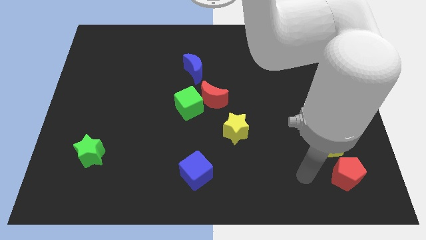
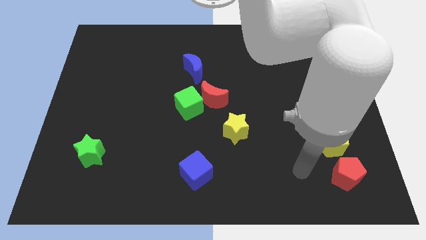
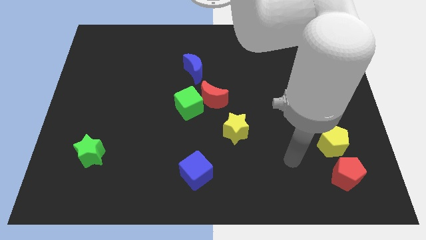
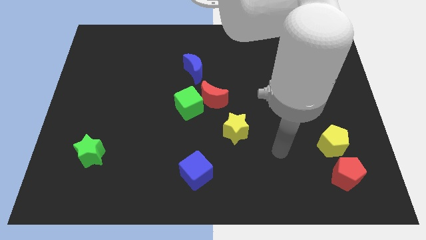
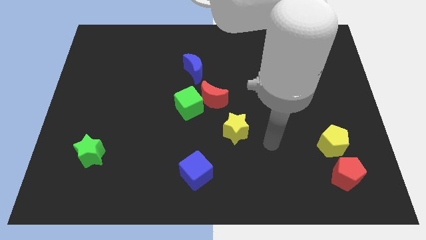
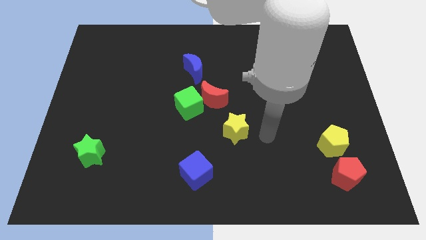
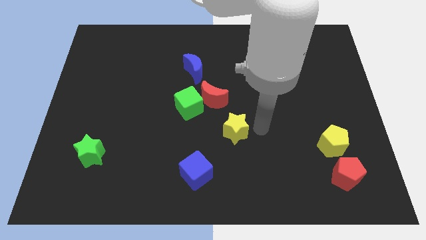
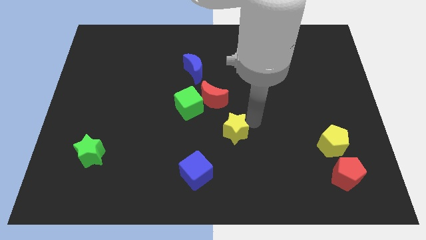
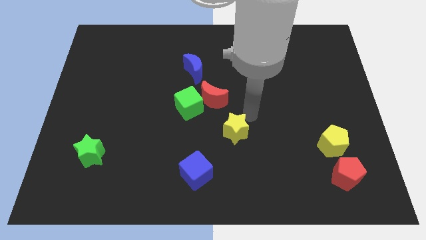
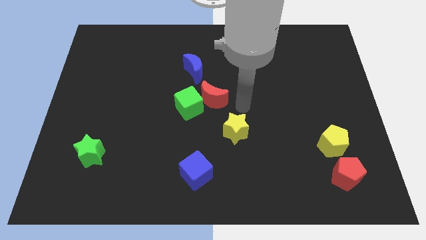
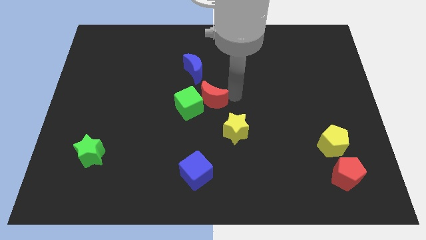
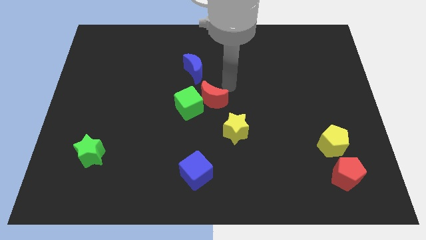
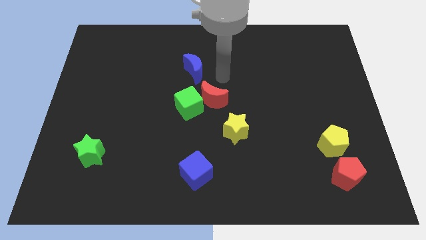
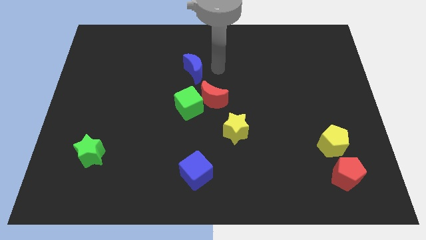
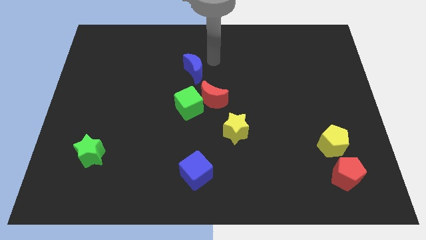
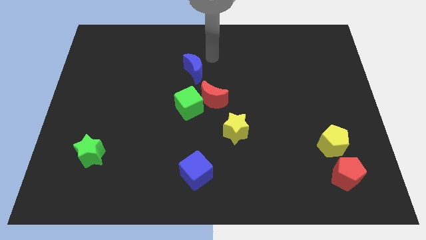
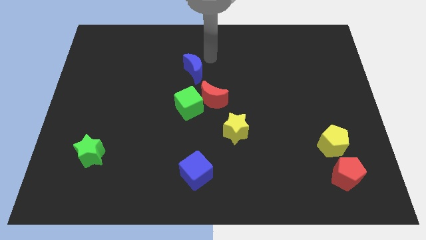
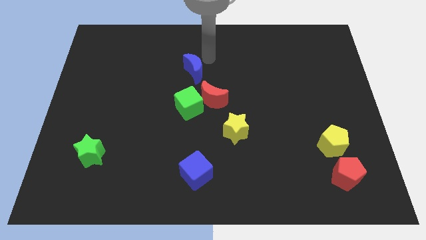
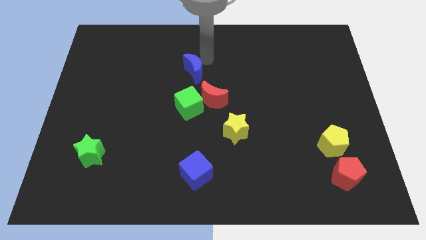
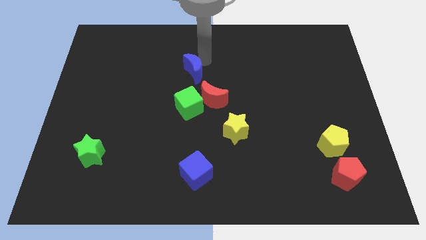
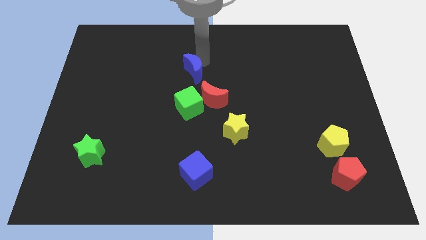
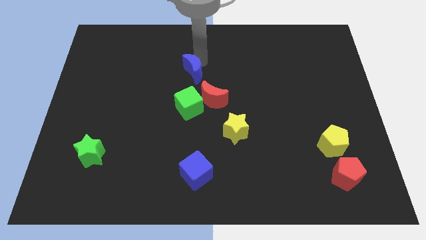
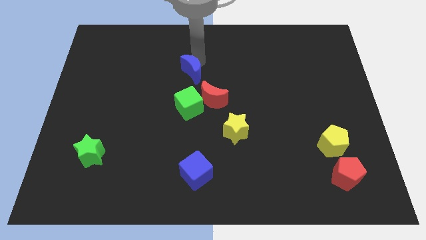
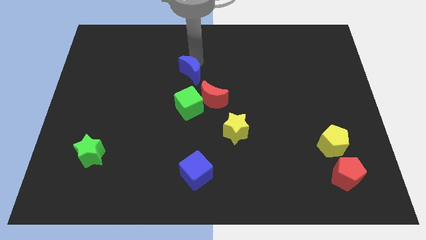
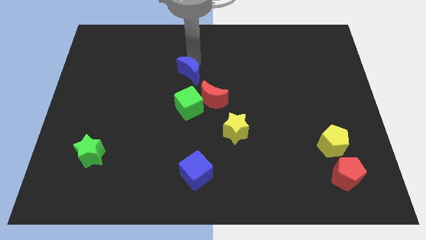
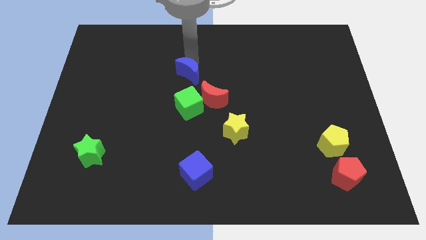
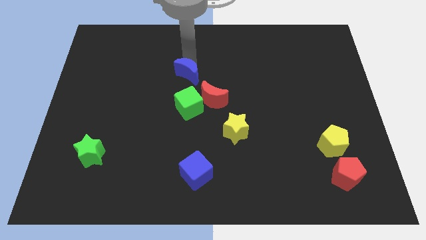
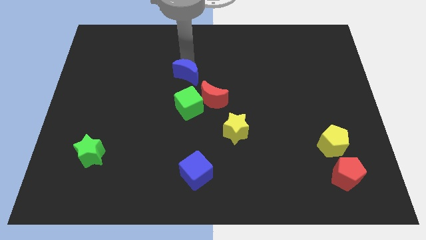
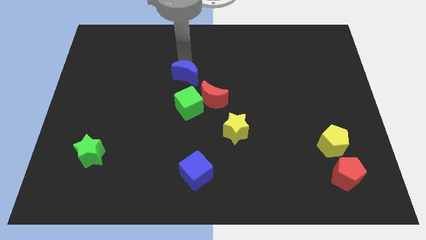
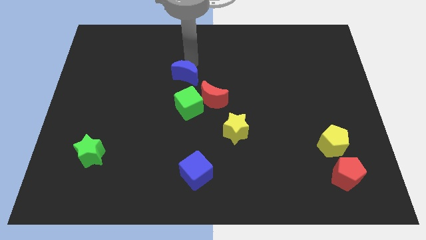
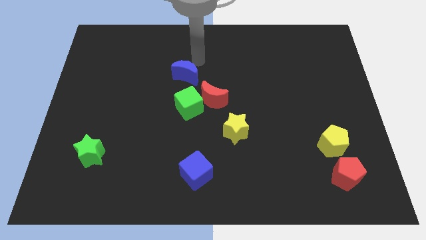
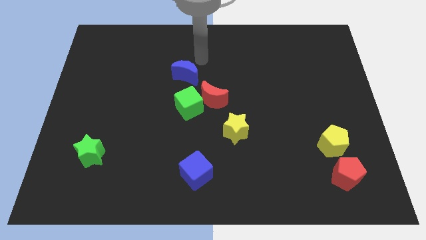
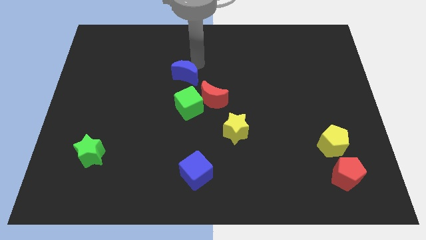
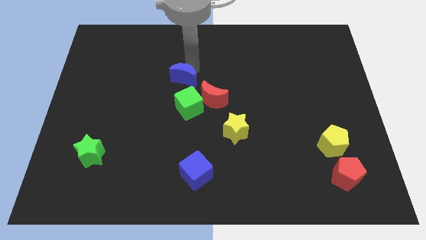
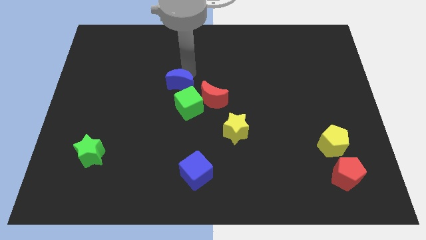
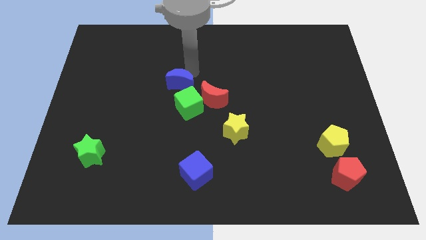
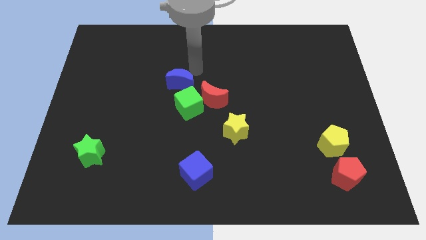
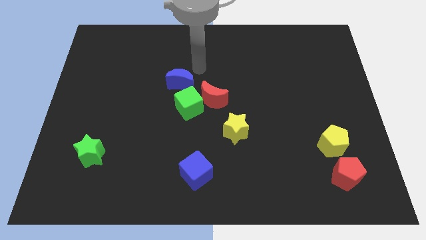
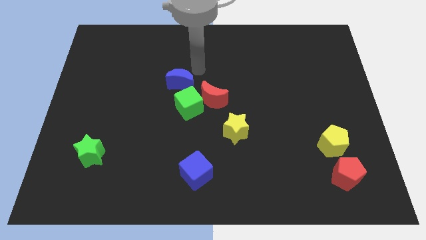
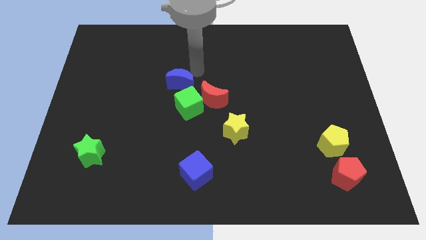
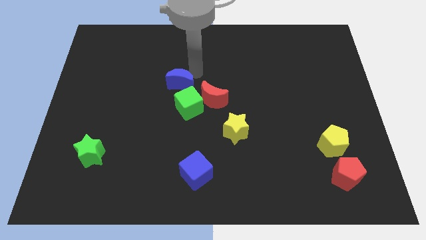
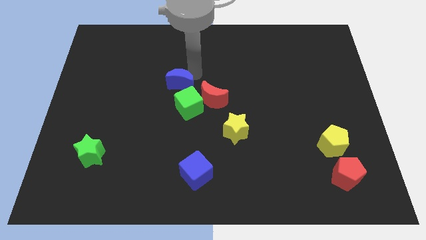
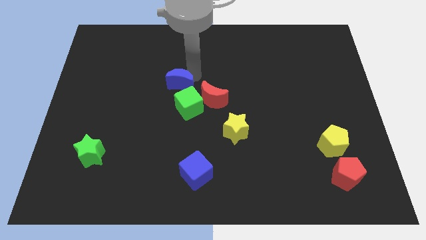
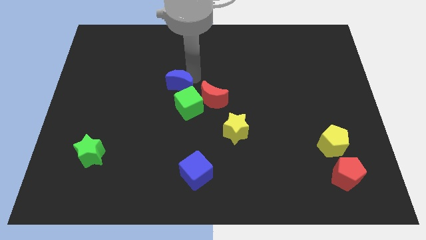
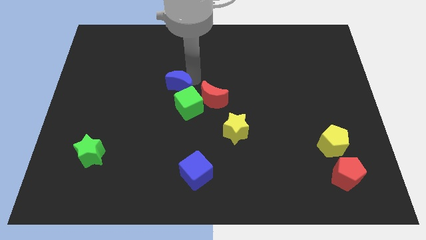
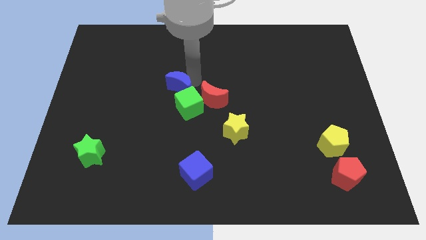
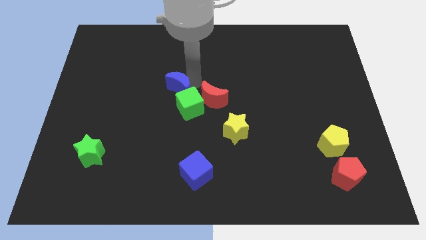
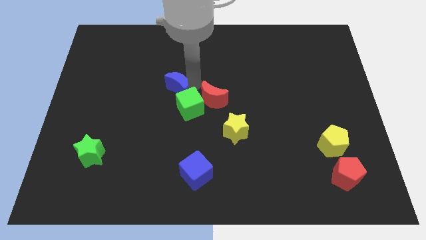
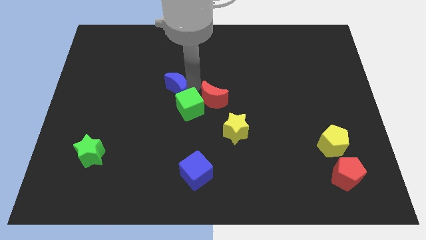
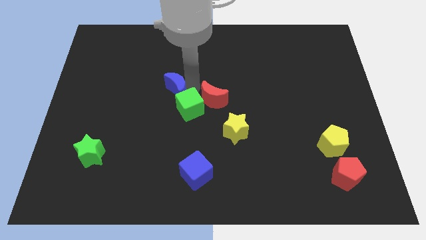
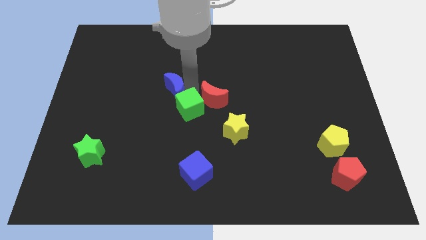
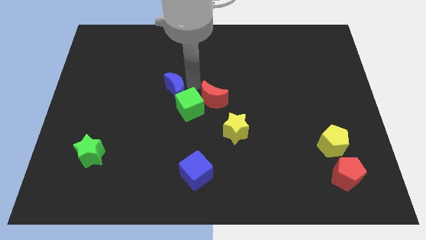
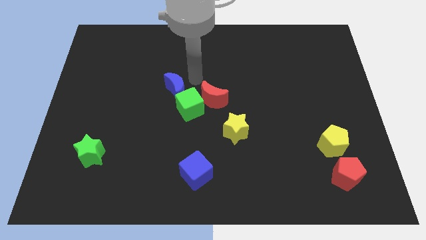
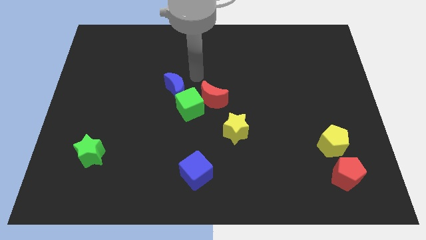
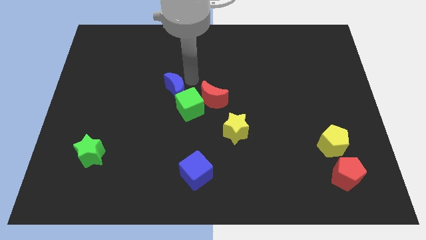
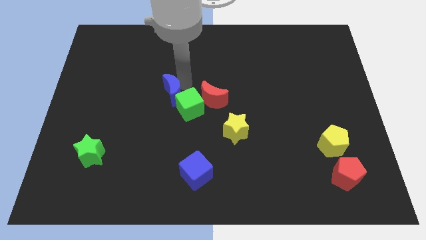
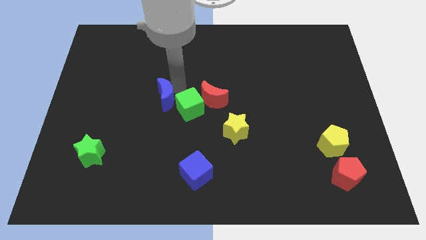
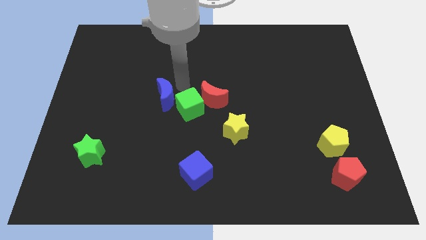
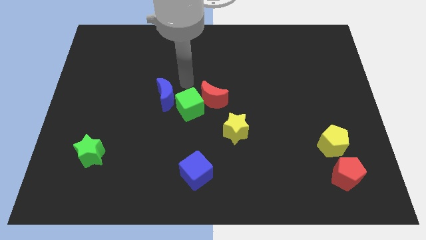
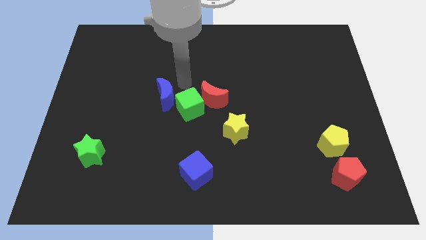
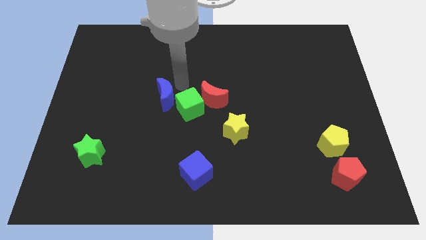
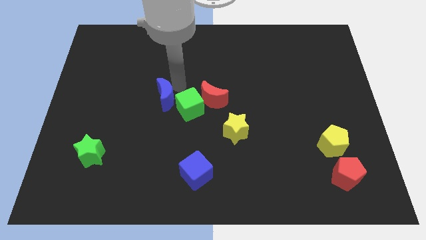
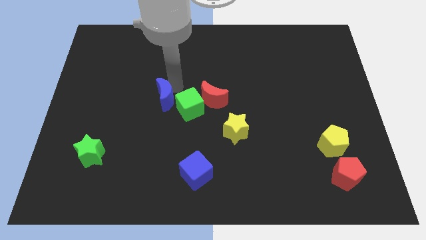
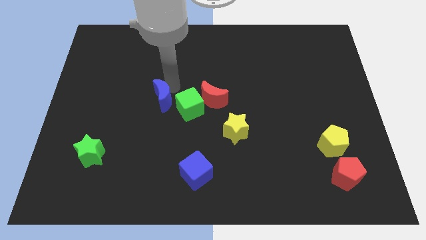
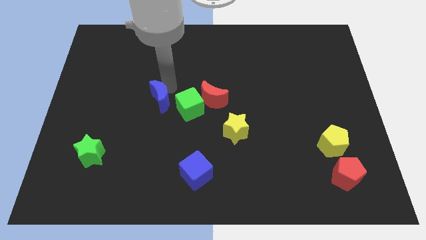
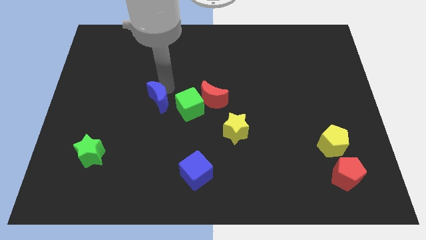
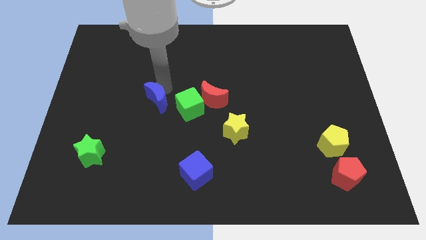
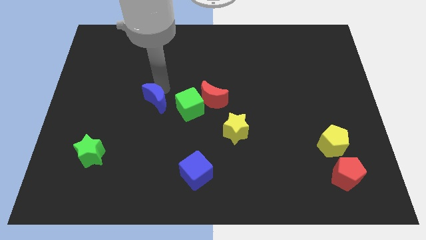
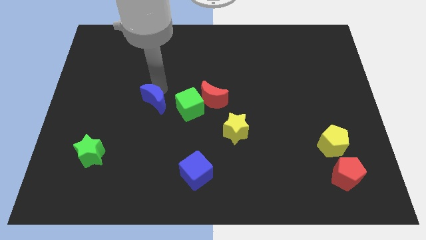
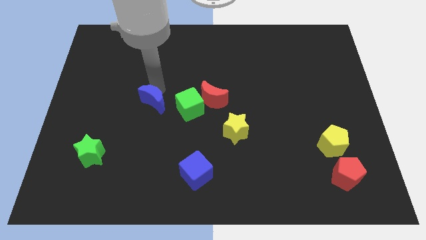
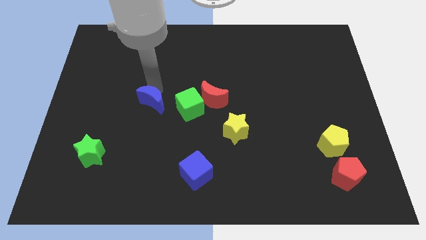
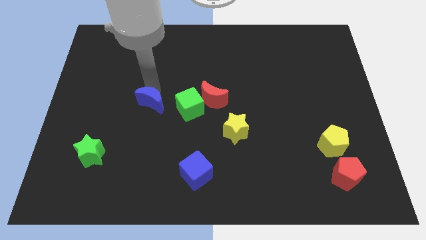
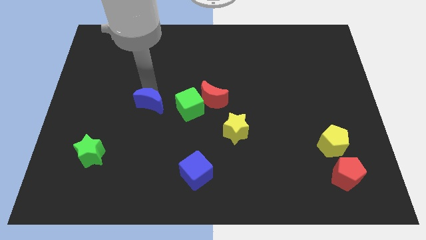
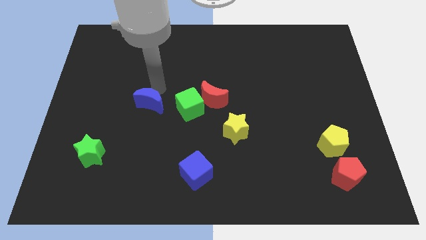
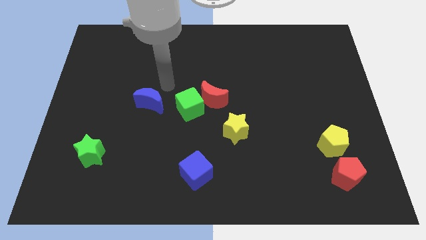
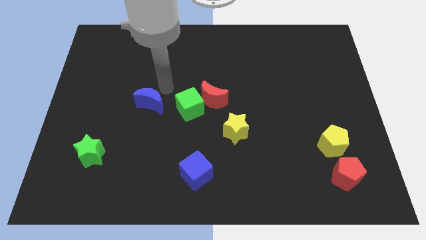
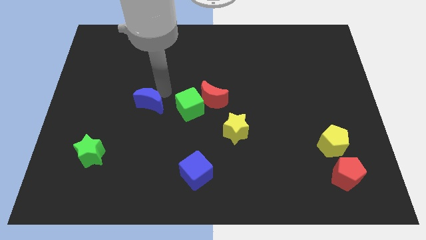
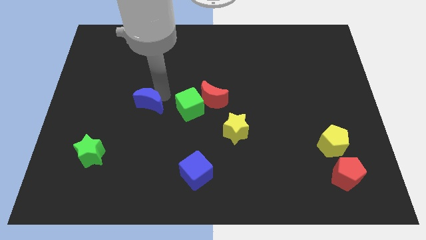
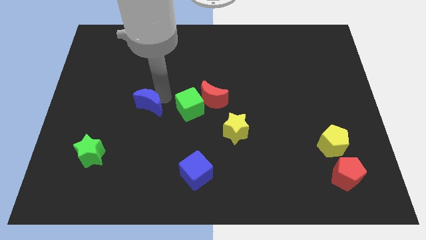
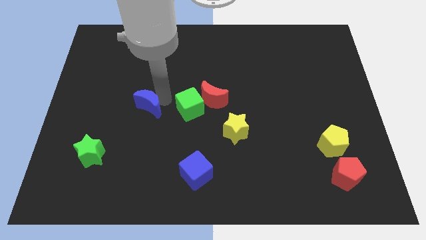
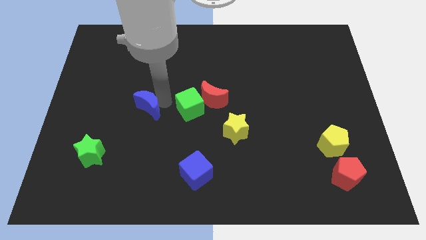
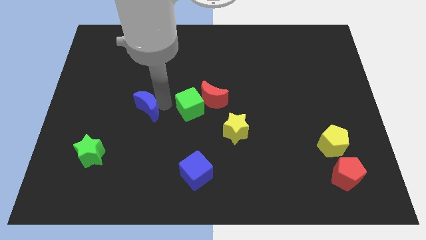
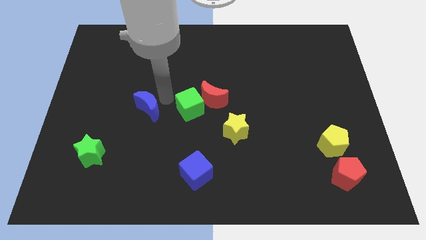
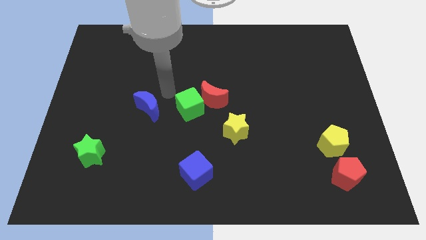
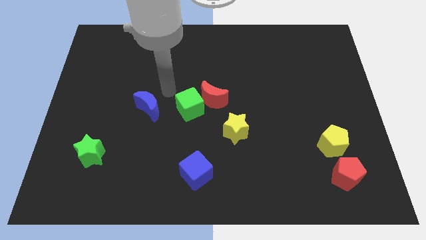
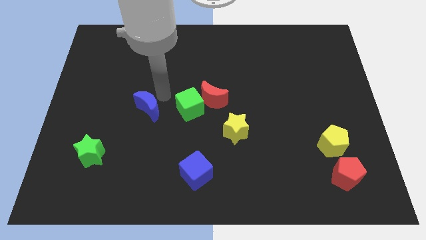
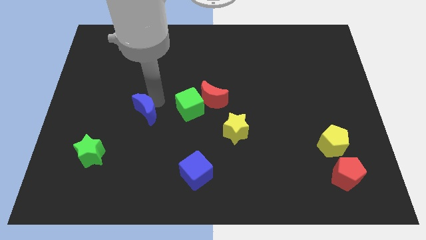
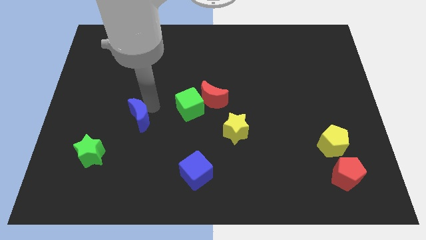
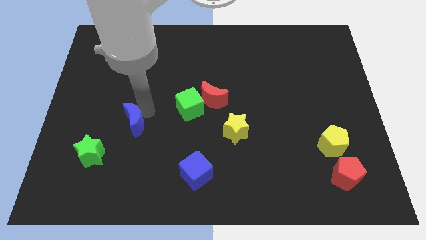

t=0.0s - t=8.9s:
slide the blue moon to the top right of the green star
